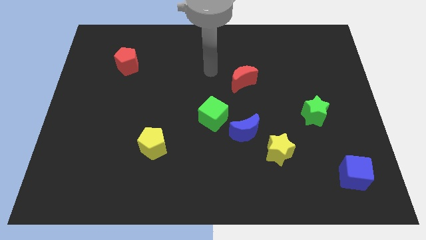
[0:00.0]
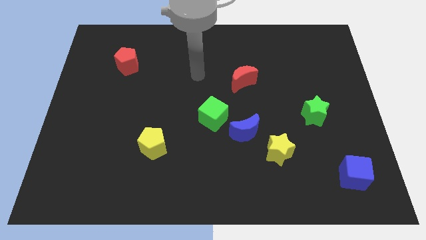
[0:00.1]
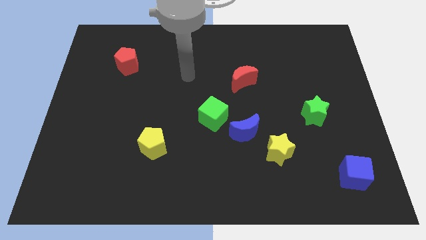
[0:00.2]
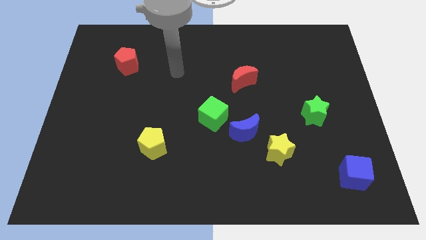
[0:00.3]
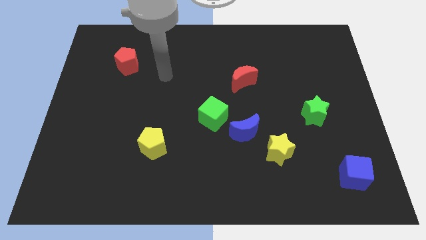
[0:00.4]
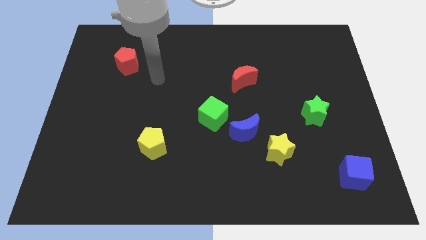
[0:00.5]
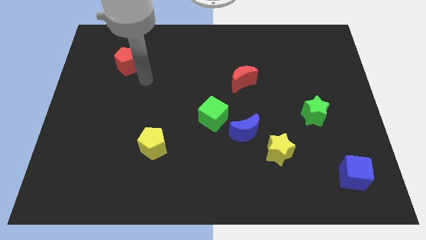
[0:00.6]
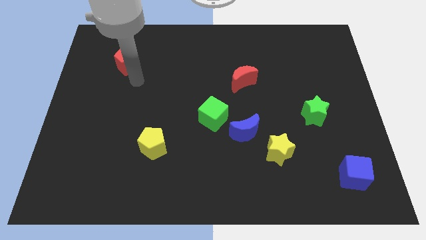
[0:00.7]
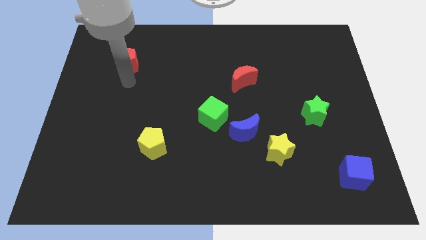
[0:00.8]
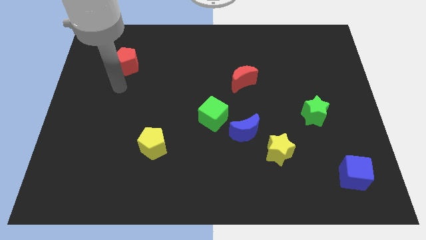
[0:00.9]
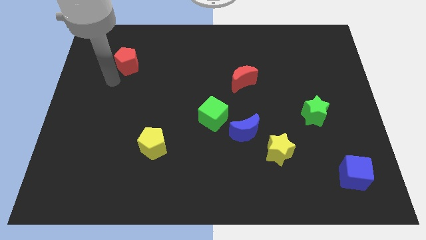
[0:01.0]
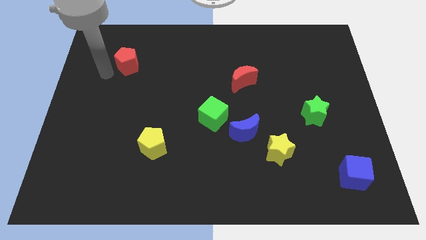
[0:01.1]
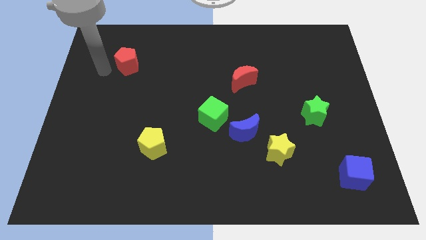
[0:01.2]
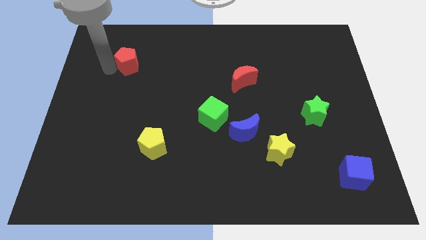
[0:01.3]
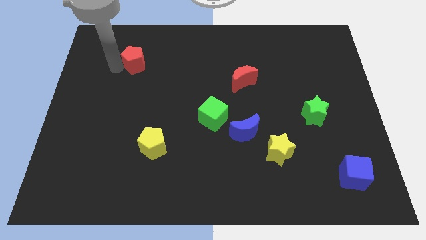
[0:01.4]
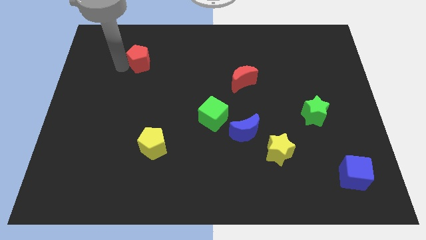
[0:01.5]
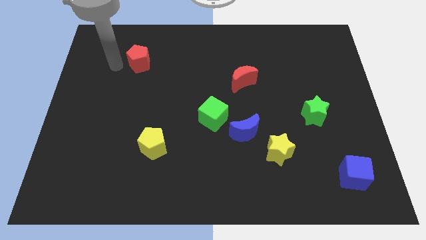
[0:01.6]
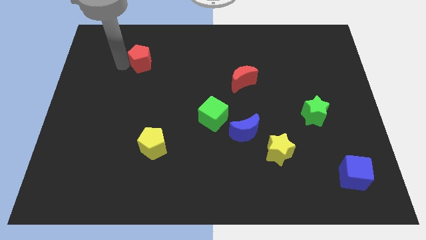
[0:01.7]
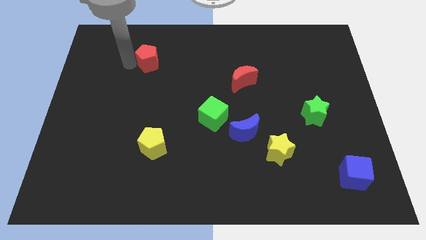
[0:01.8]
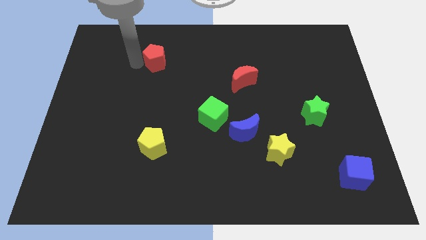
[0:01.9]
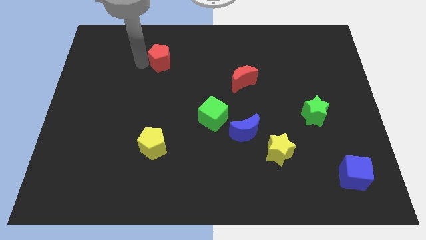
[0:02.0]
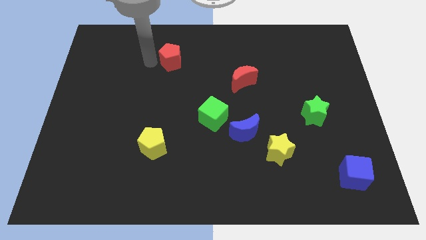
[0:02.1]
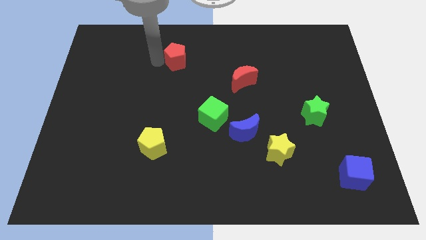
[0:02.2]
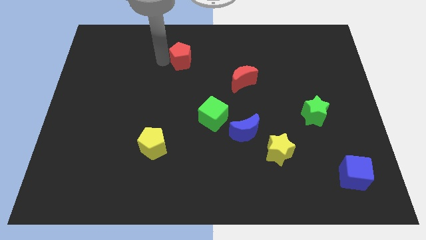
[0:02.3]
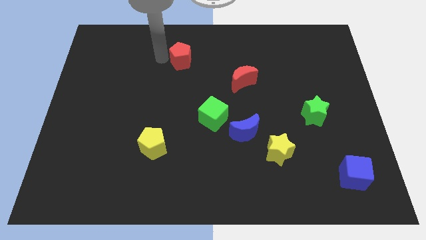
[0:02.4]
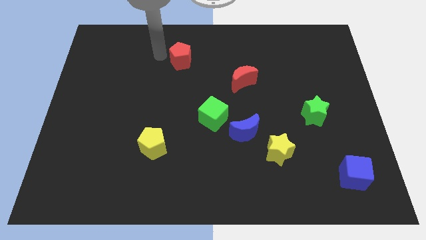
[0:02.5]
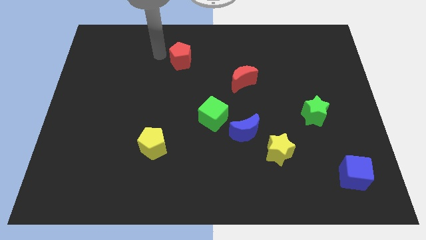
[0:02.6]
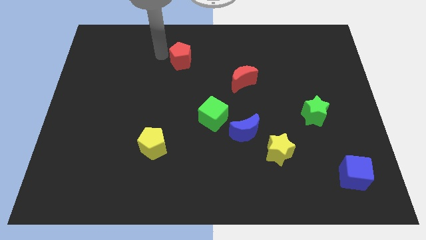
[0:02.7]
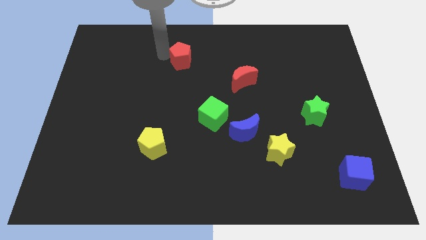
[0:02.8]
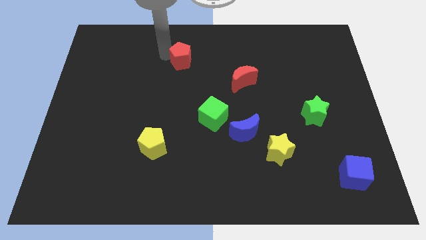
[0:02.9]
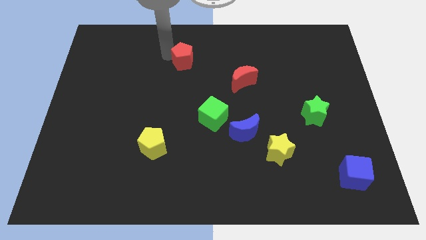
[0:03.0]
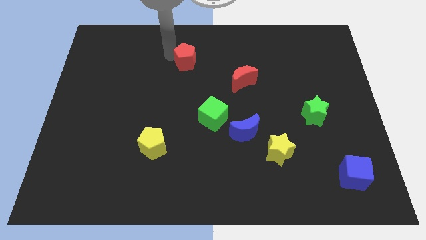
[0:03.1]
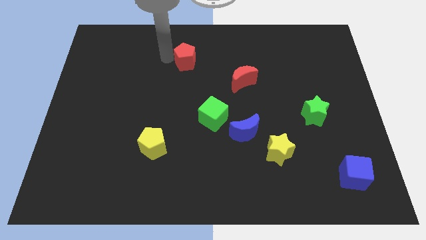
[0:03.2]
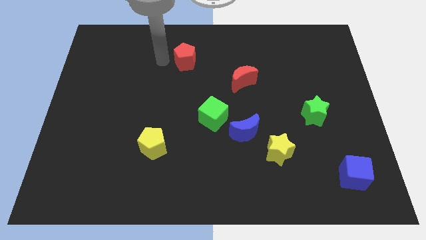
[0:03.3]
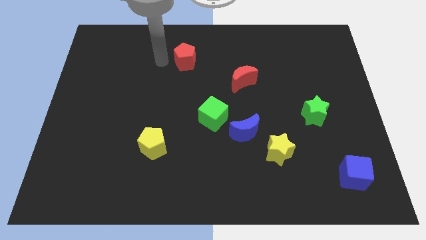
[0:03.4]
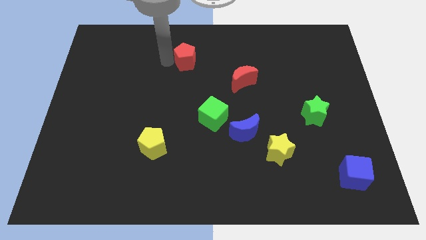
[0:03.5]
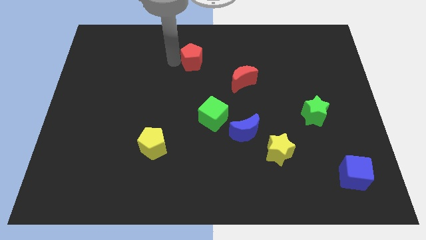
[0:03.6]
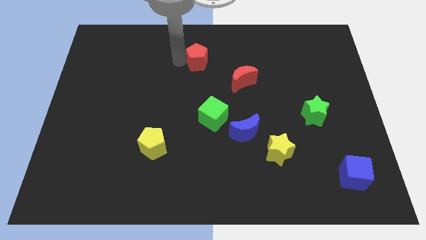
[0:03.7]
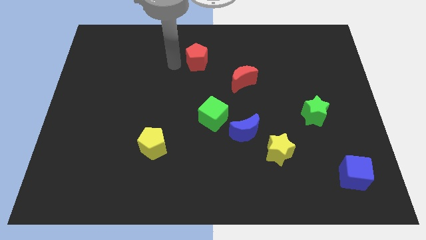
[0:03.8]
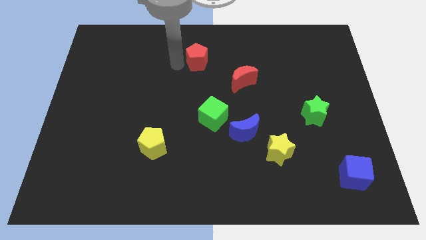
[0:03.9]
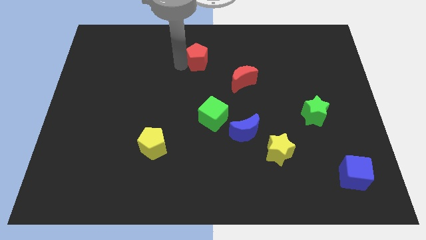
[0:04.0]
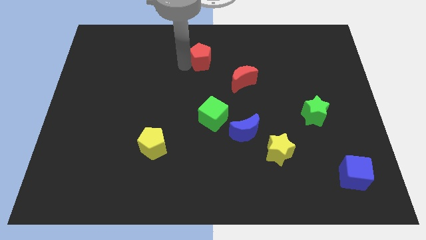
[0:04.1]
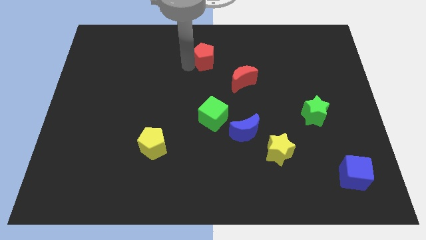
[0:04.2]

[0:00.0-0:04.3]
slide the red pentagon to the right

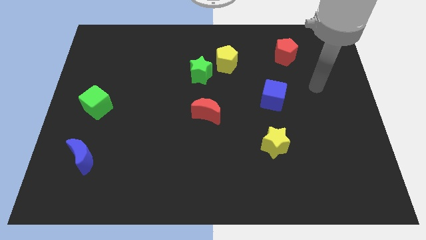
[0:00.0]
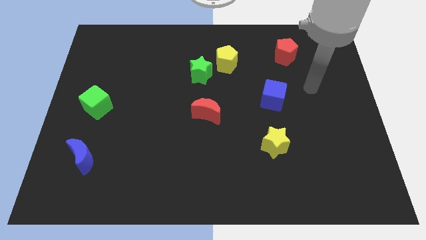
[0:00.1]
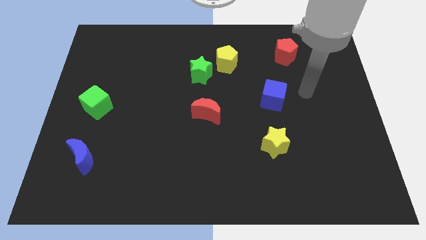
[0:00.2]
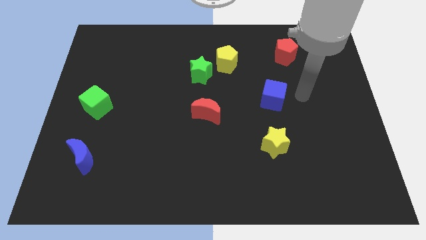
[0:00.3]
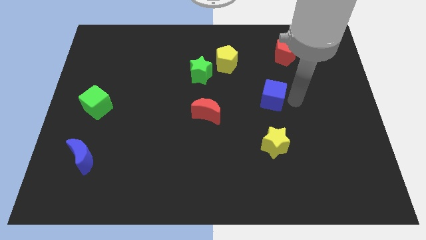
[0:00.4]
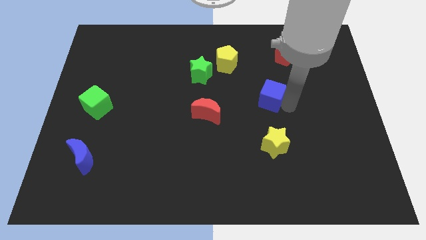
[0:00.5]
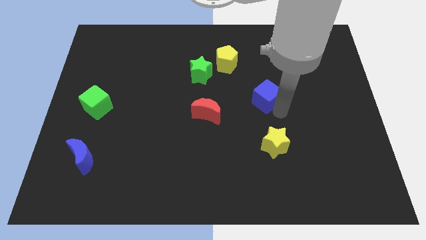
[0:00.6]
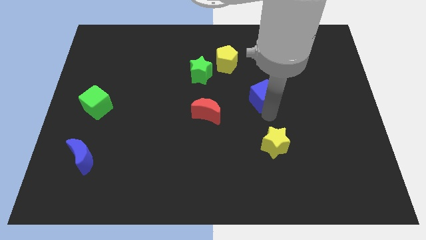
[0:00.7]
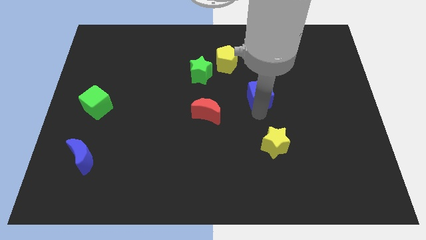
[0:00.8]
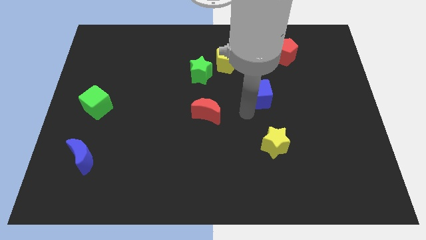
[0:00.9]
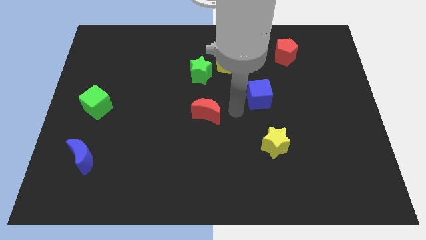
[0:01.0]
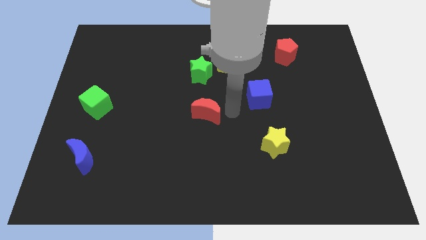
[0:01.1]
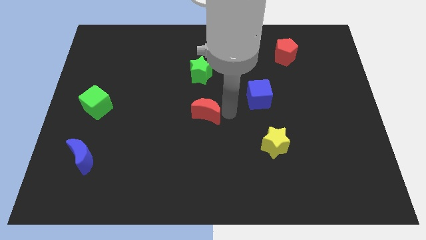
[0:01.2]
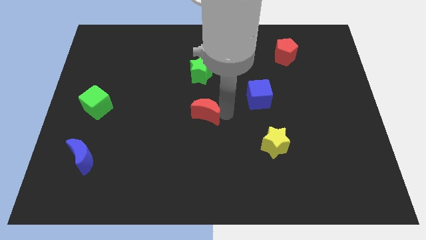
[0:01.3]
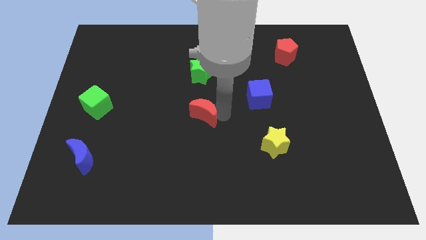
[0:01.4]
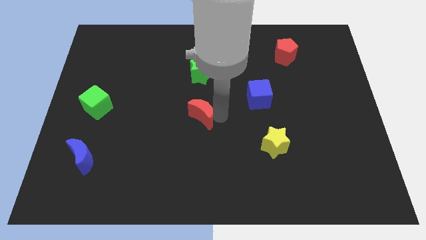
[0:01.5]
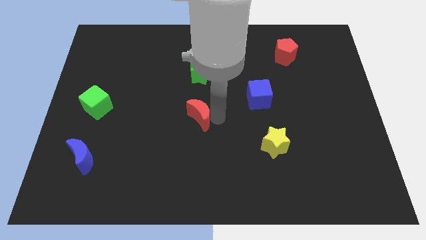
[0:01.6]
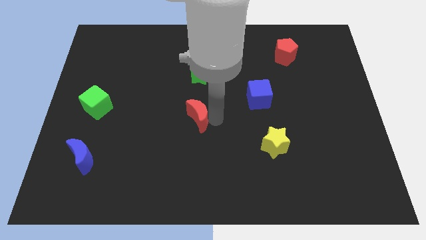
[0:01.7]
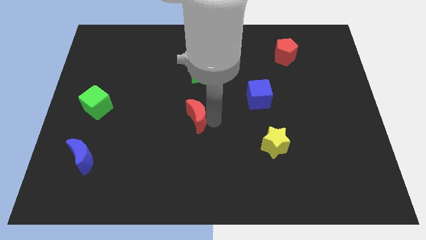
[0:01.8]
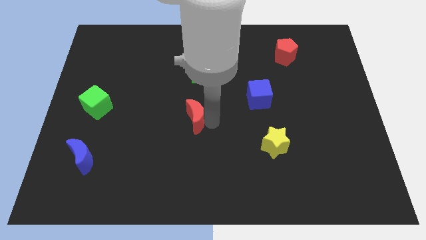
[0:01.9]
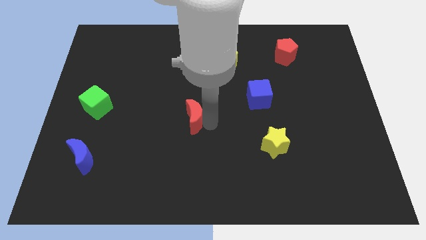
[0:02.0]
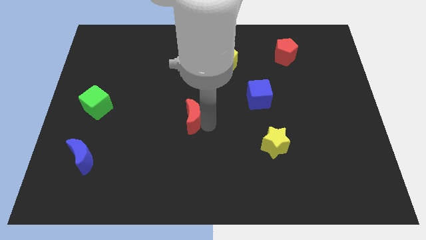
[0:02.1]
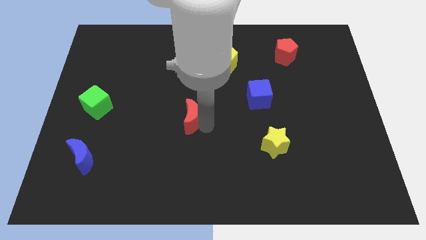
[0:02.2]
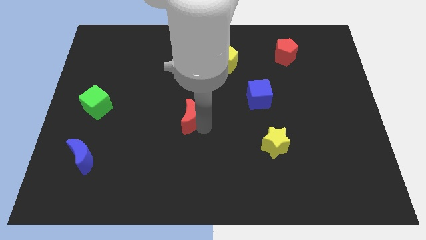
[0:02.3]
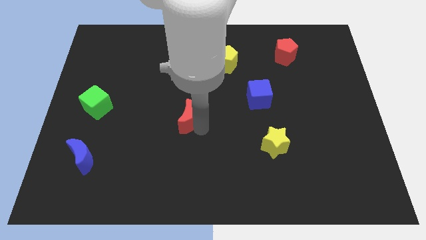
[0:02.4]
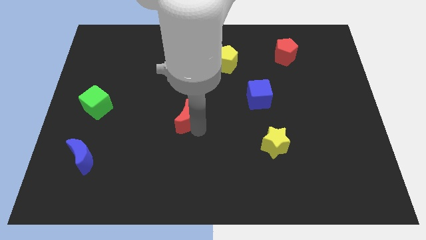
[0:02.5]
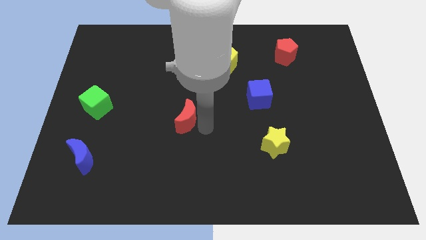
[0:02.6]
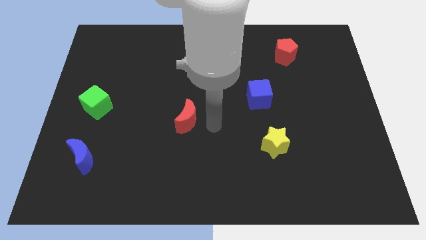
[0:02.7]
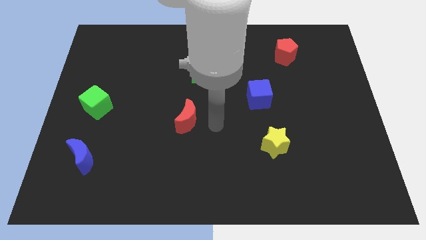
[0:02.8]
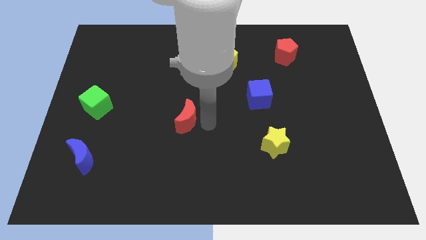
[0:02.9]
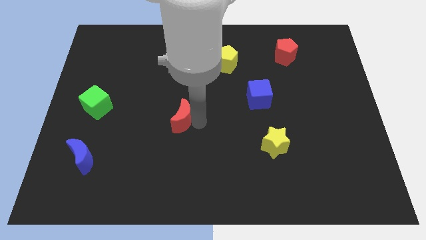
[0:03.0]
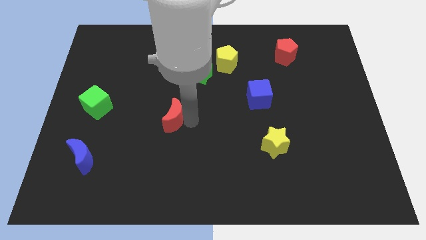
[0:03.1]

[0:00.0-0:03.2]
slightly slide the red moon to the left

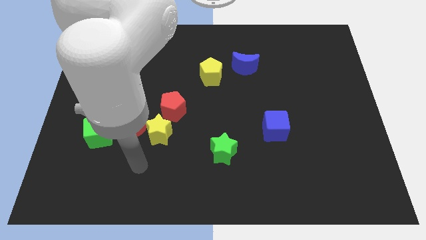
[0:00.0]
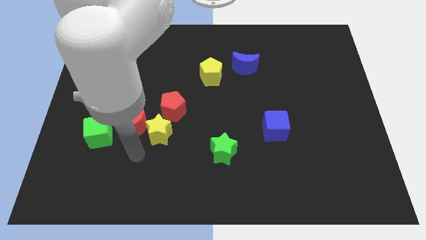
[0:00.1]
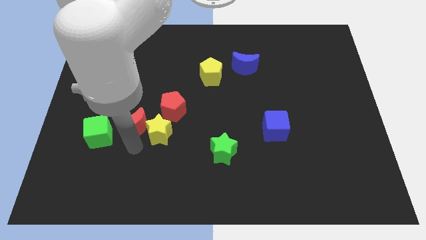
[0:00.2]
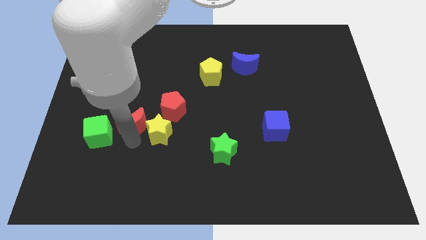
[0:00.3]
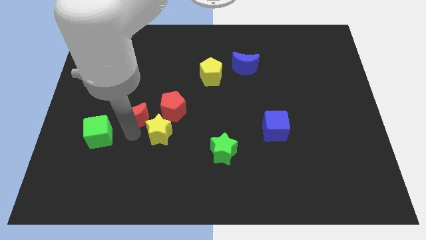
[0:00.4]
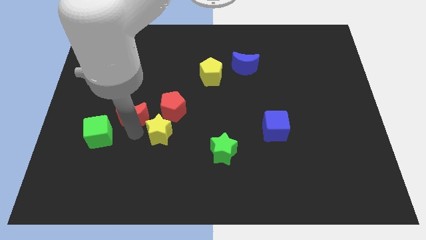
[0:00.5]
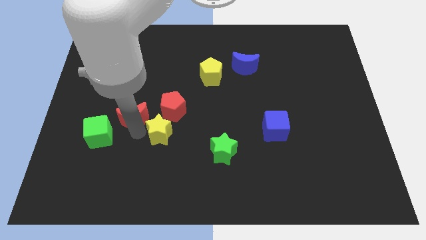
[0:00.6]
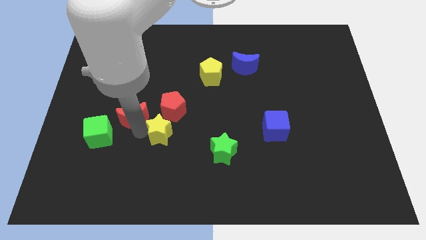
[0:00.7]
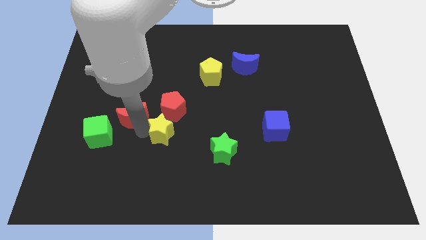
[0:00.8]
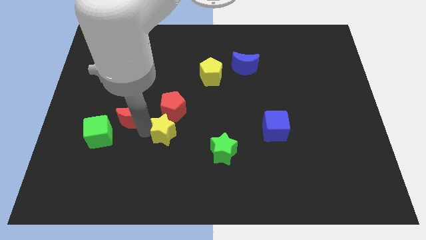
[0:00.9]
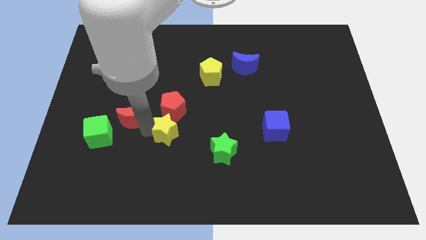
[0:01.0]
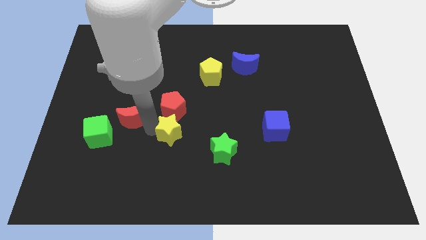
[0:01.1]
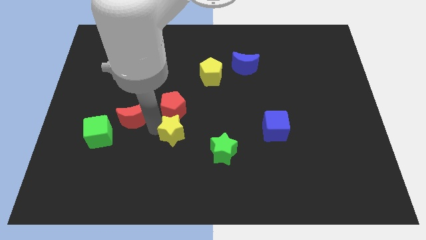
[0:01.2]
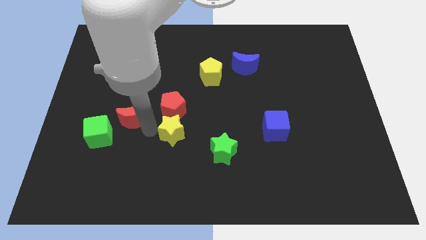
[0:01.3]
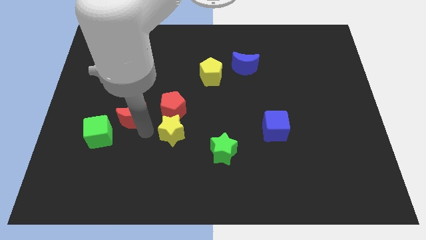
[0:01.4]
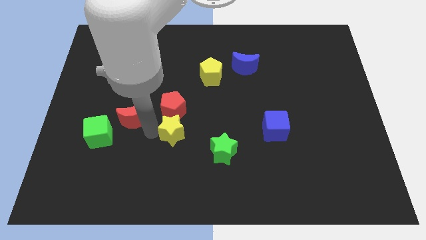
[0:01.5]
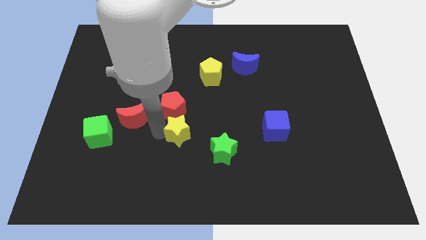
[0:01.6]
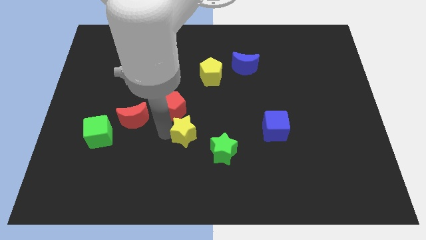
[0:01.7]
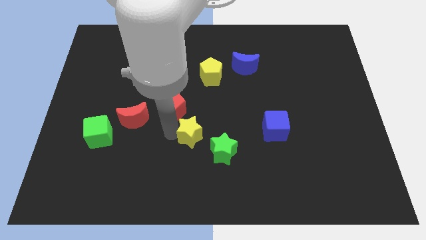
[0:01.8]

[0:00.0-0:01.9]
slide the yellow star right somewhat
